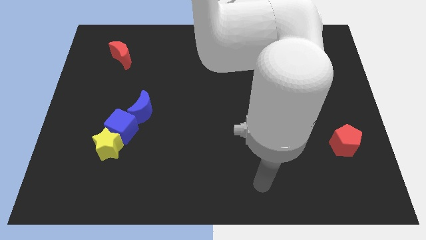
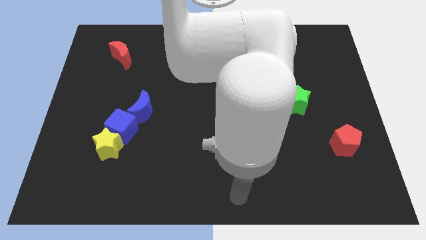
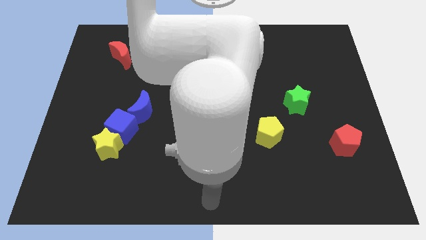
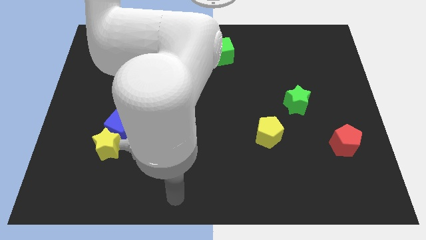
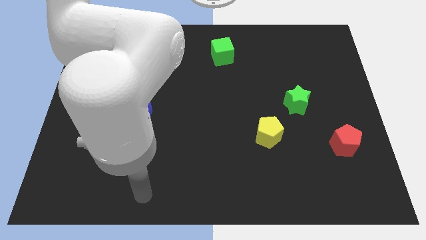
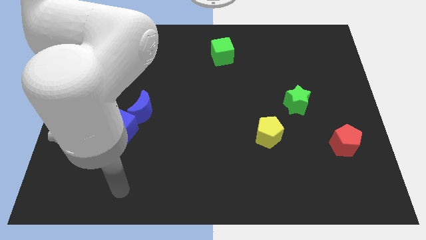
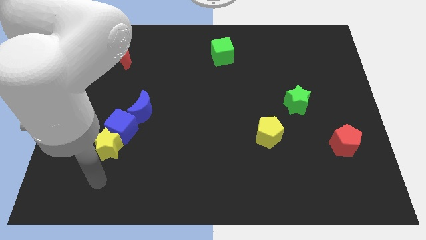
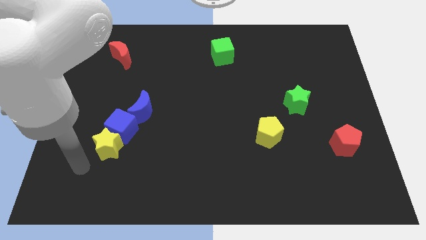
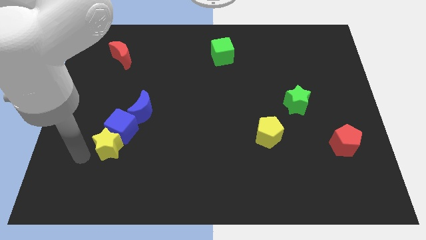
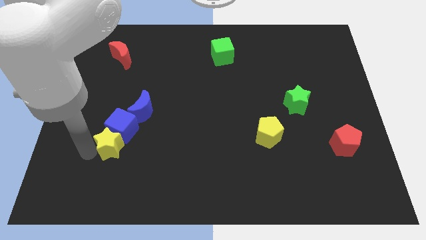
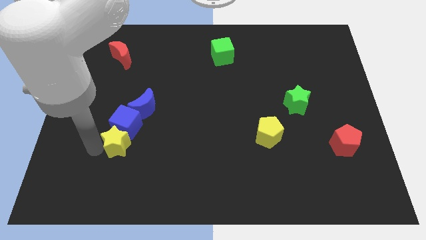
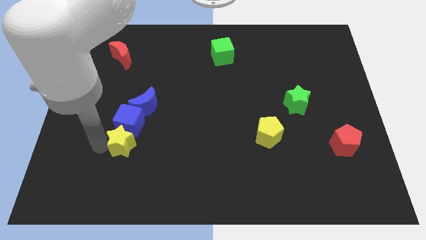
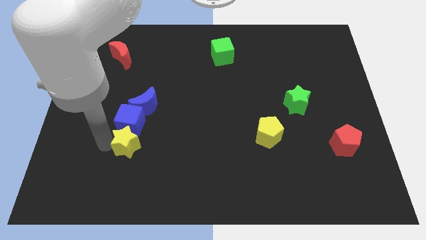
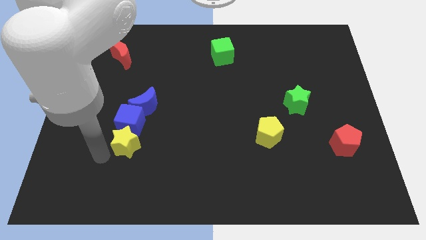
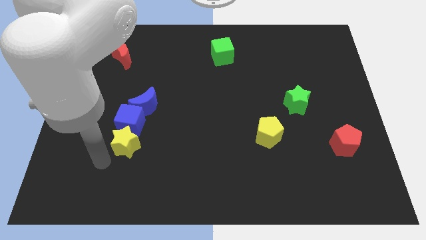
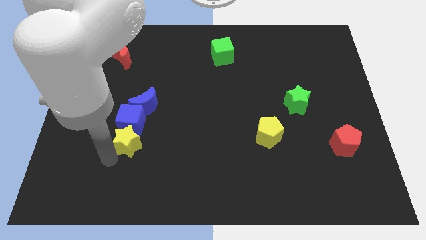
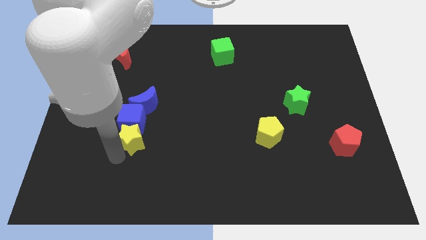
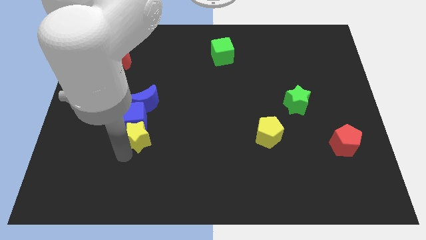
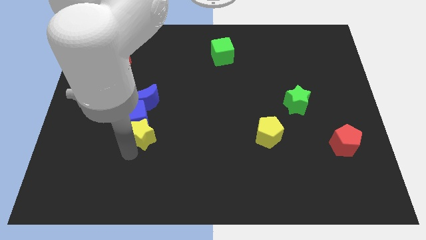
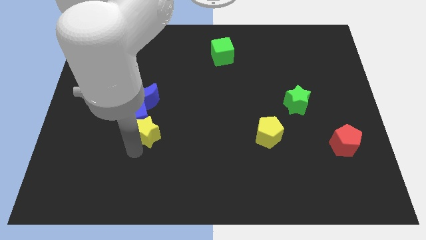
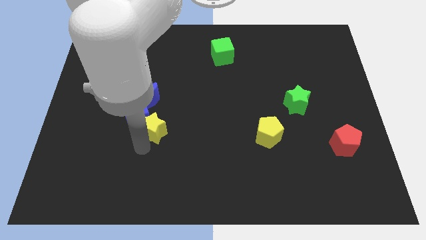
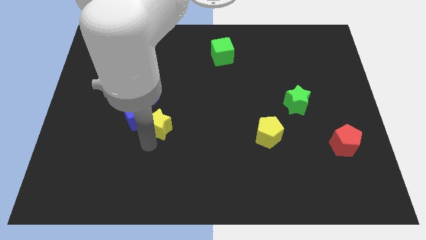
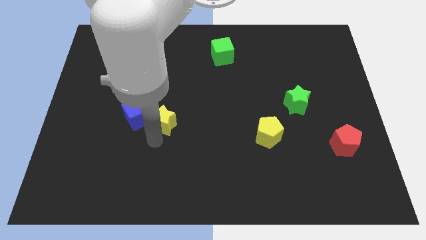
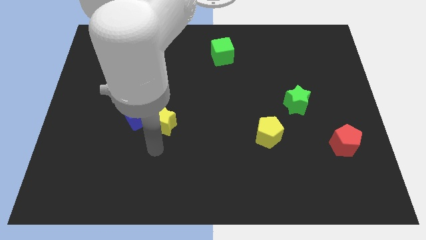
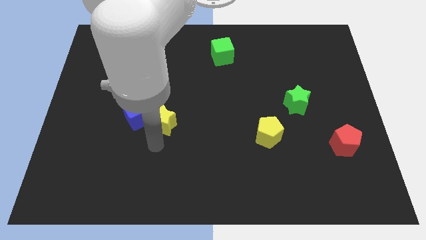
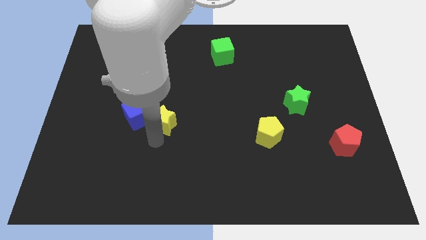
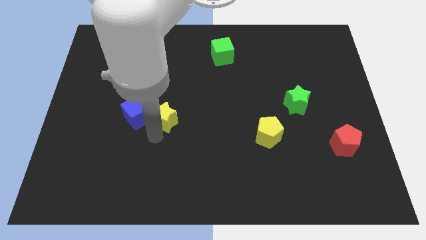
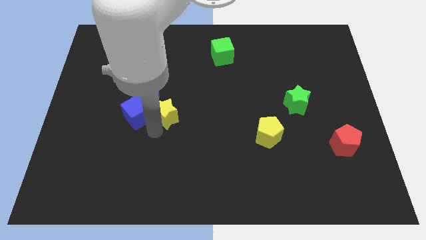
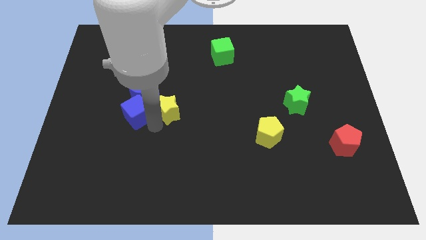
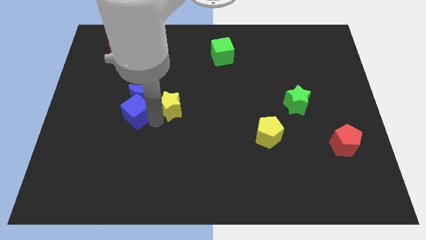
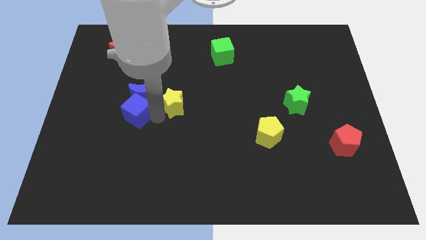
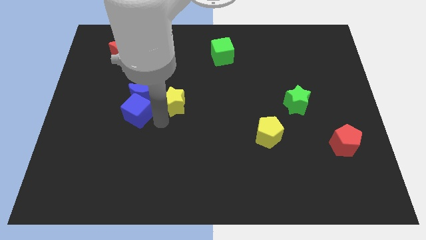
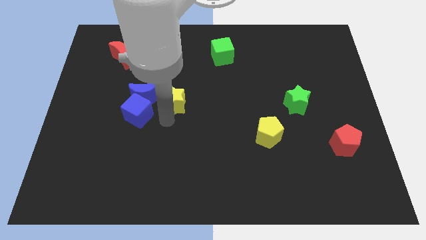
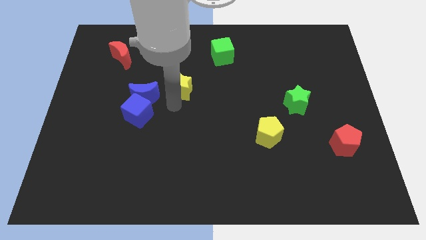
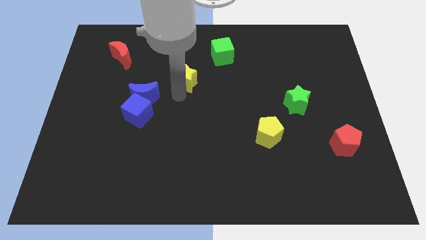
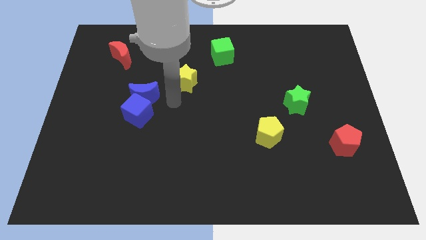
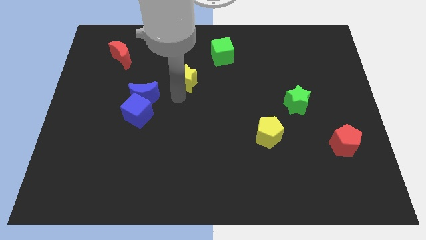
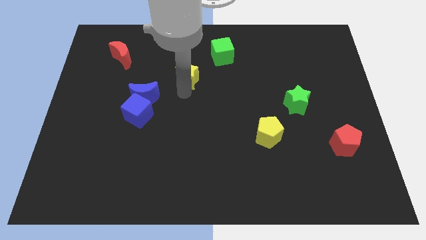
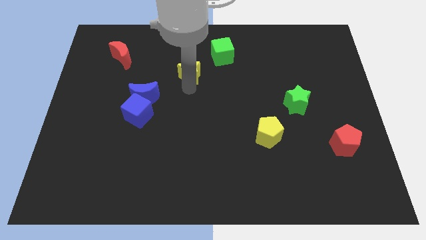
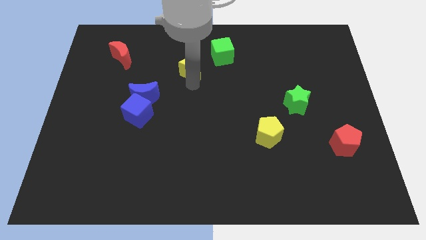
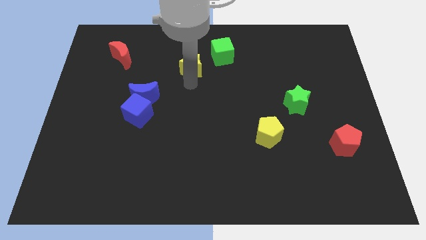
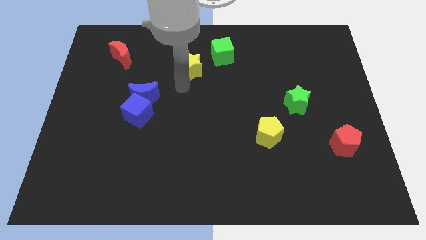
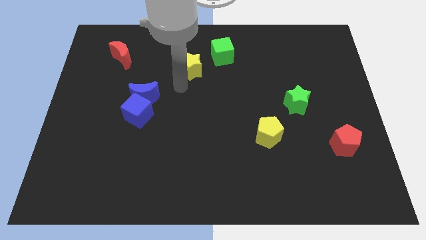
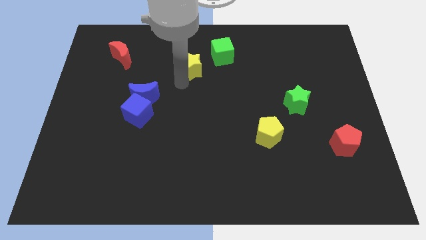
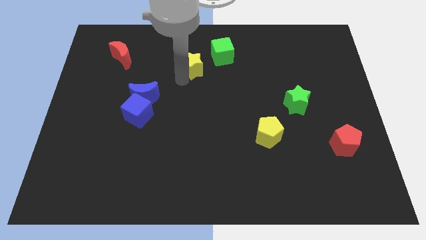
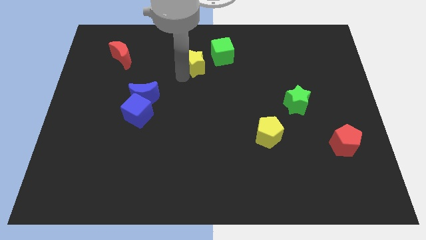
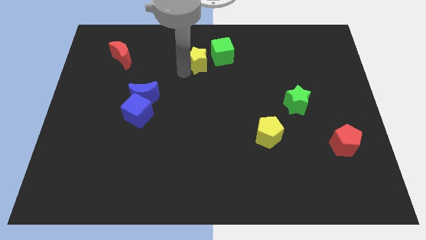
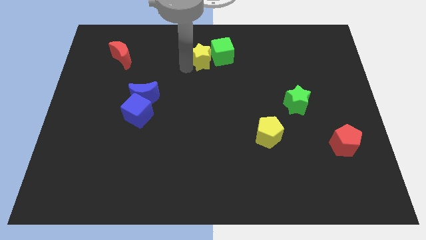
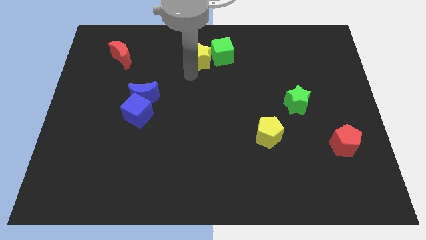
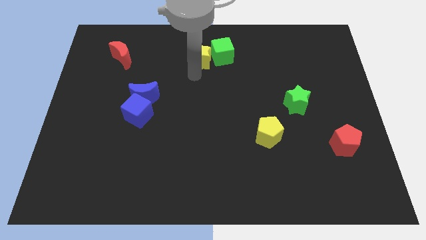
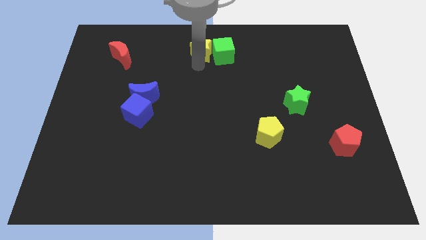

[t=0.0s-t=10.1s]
put the yellow star to the top

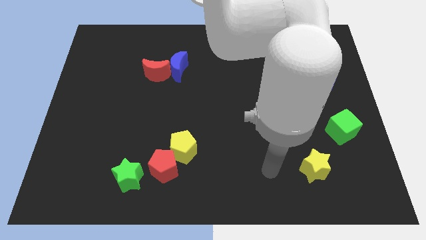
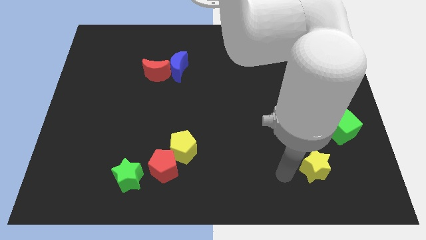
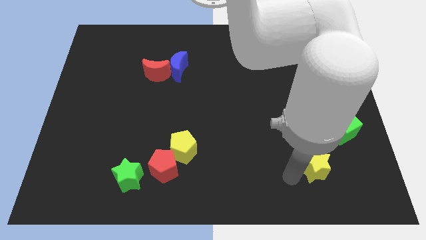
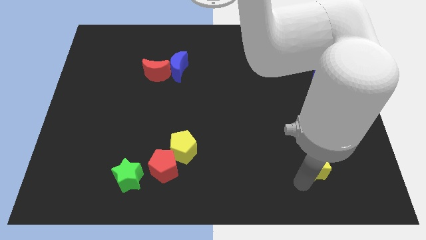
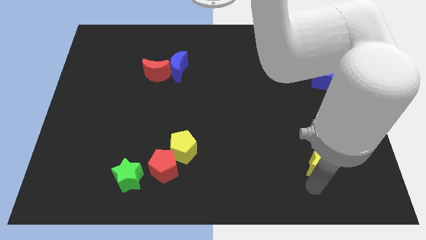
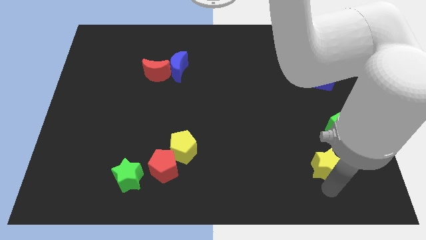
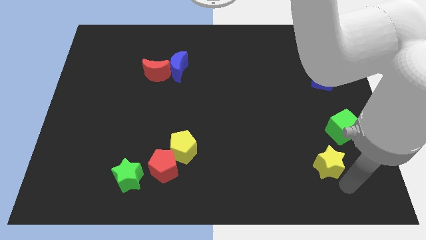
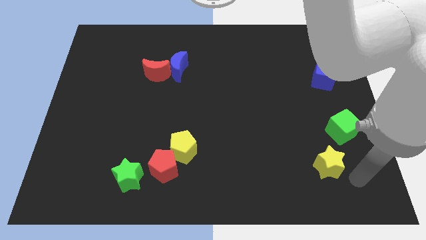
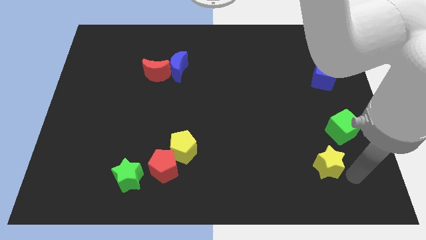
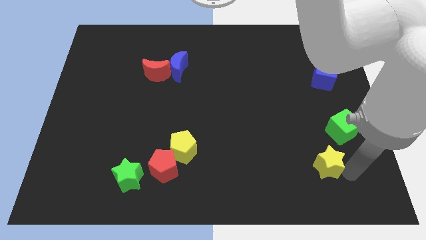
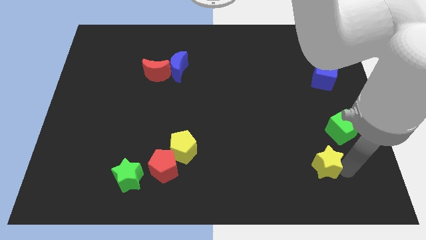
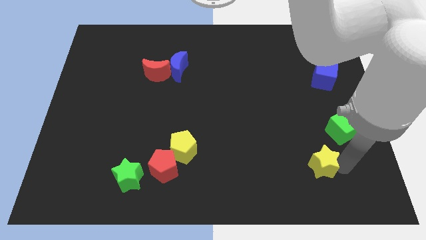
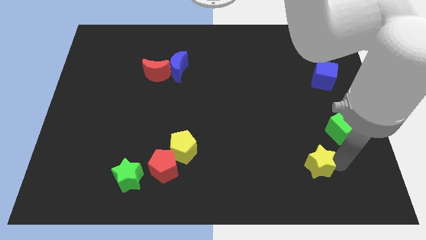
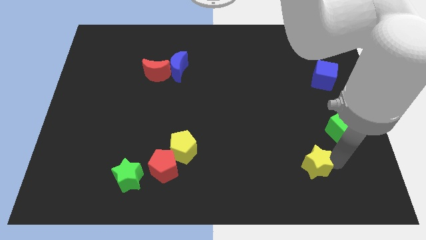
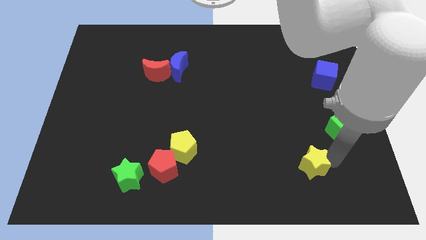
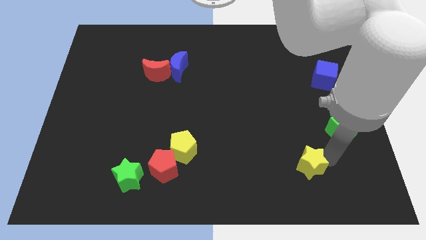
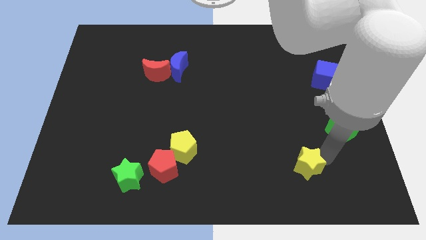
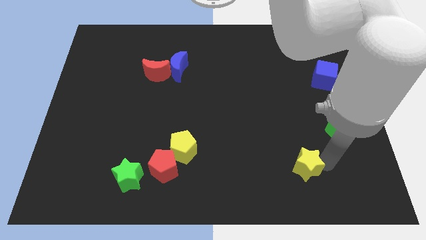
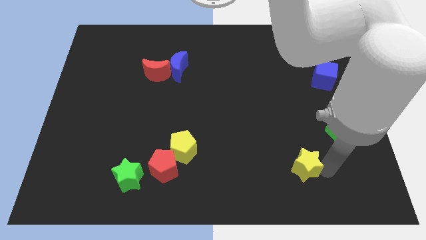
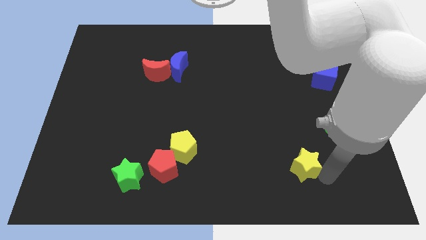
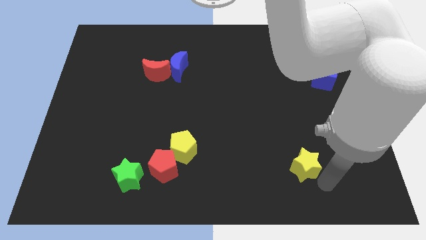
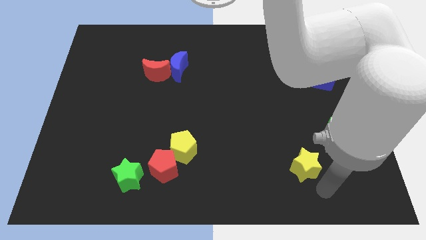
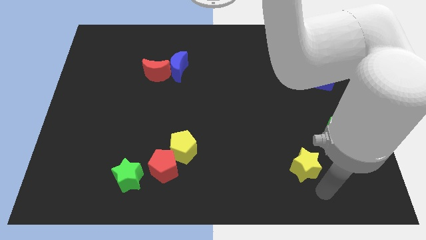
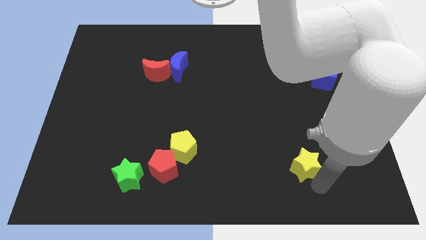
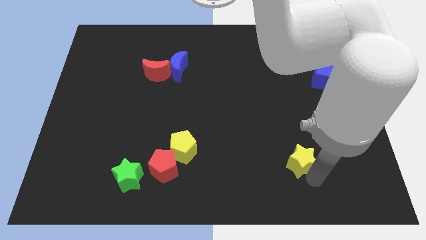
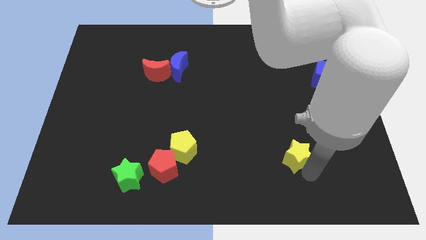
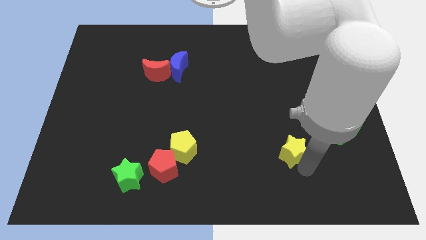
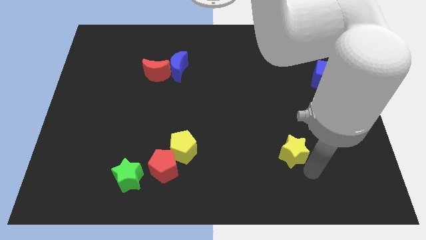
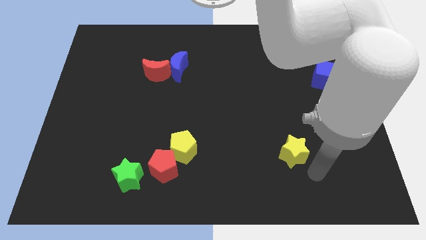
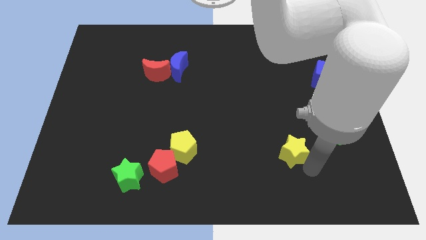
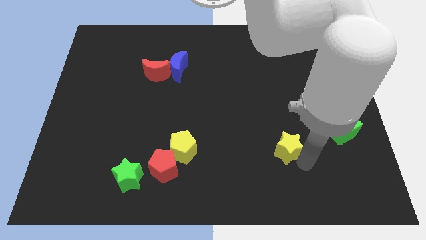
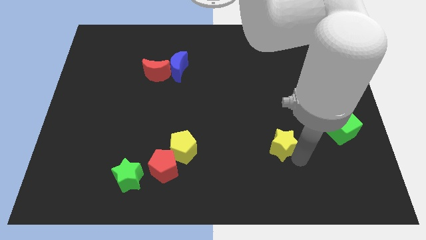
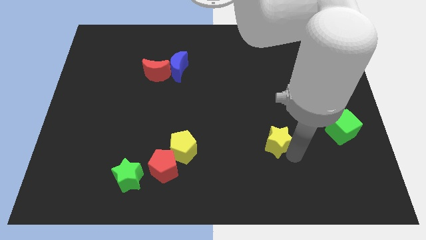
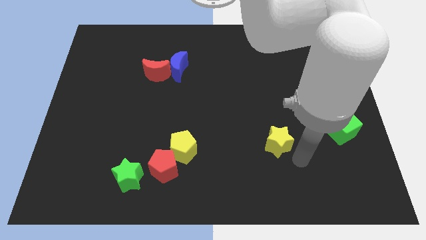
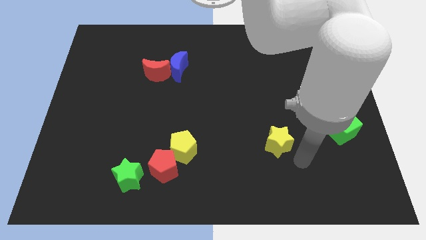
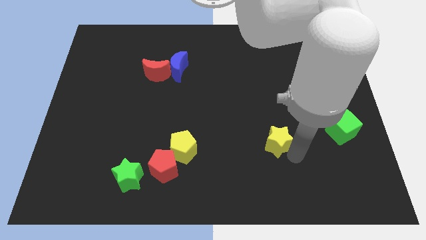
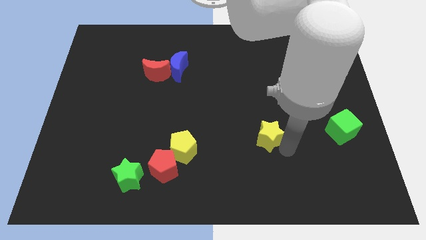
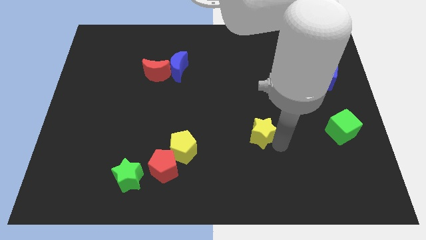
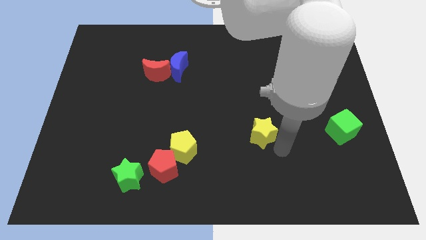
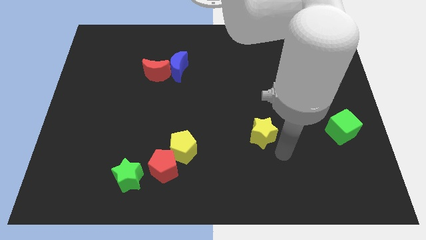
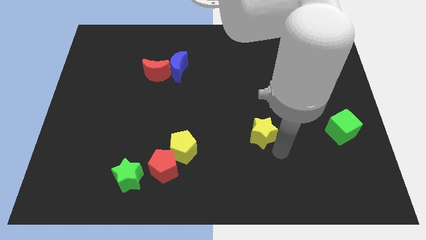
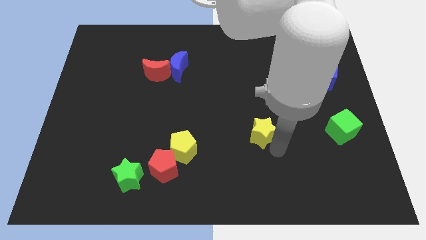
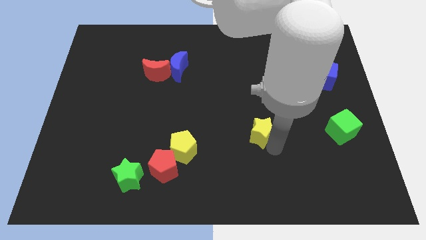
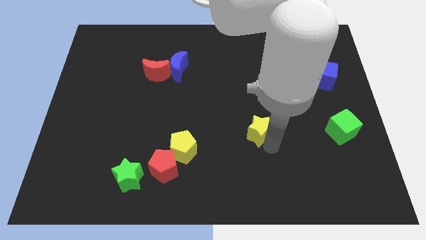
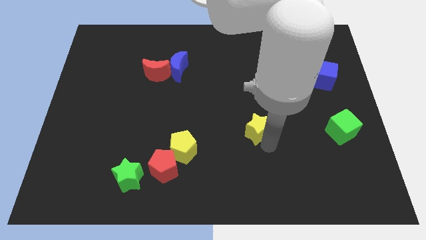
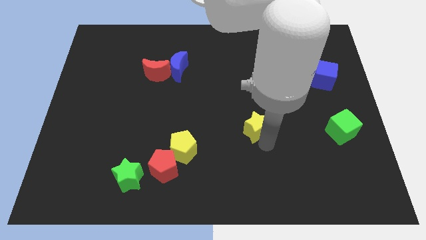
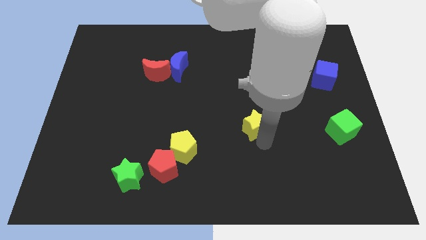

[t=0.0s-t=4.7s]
push the yellow star to the middle
